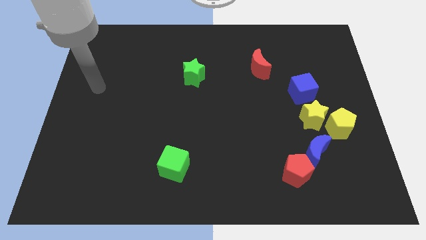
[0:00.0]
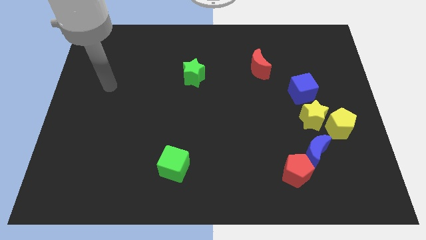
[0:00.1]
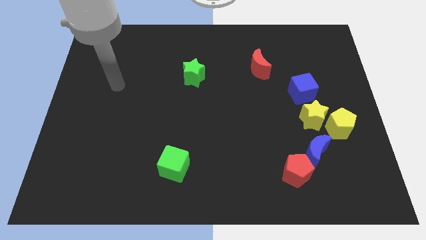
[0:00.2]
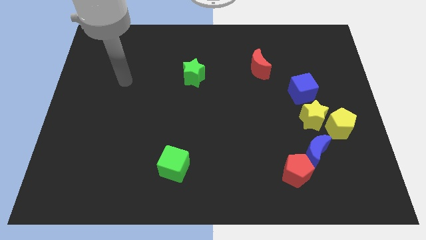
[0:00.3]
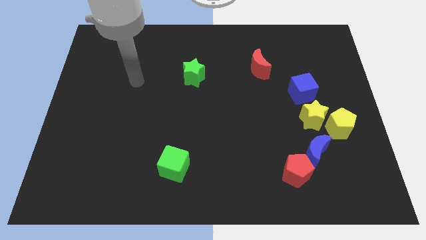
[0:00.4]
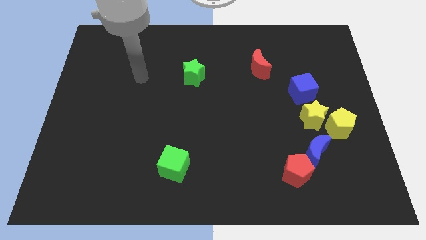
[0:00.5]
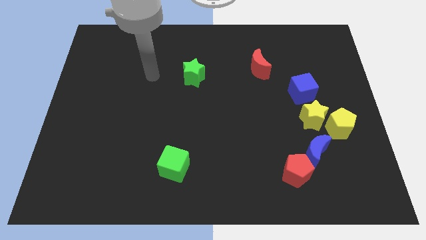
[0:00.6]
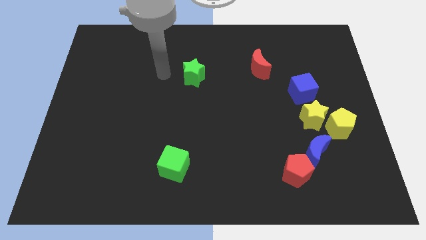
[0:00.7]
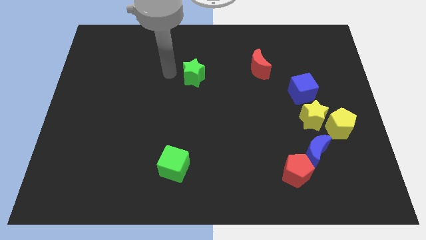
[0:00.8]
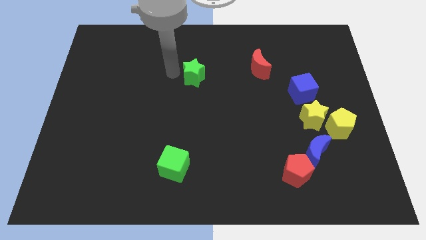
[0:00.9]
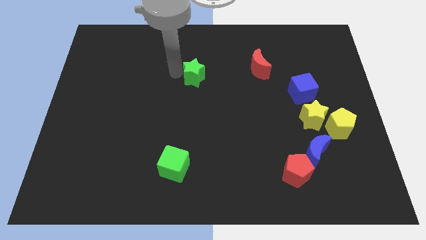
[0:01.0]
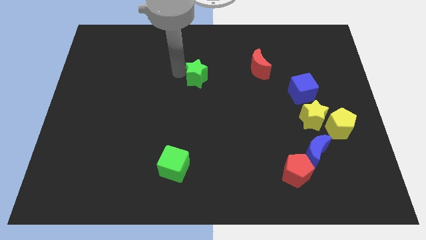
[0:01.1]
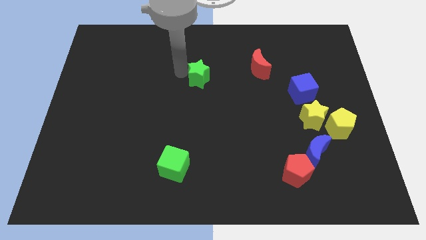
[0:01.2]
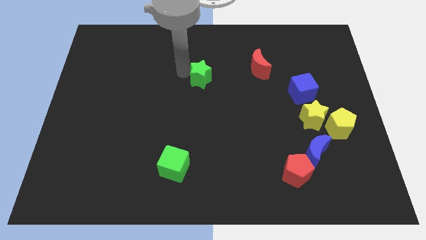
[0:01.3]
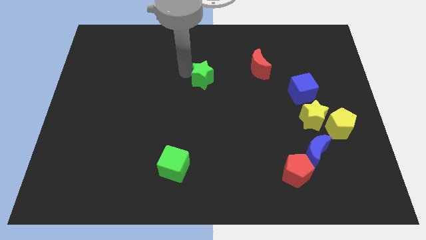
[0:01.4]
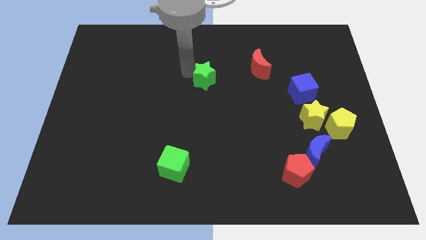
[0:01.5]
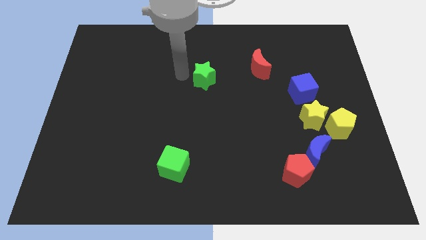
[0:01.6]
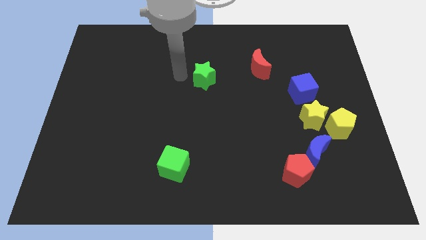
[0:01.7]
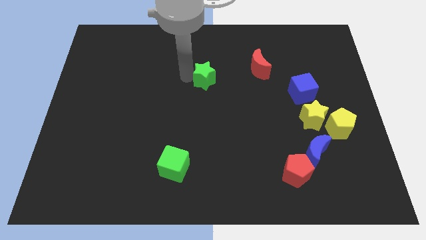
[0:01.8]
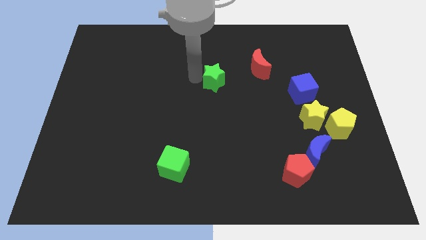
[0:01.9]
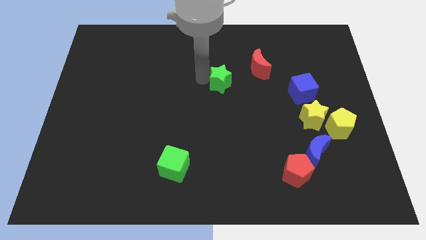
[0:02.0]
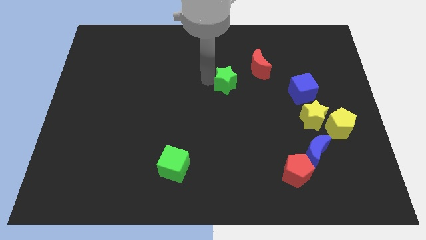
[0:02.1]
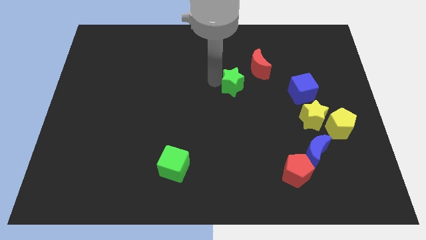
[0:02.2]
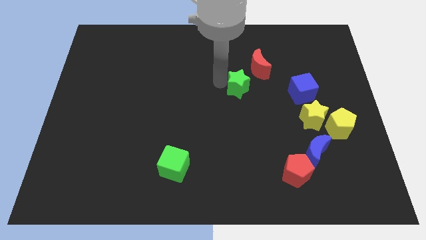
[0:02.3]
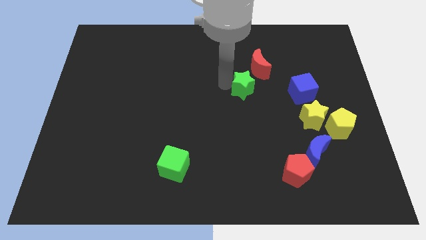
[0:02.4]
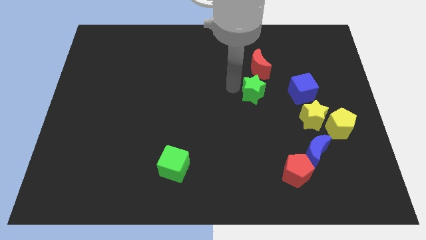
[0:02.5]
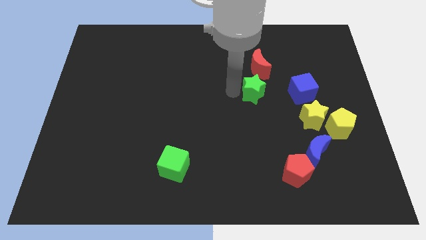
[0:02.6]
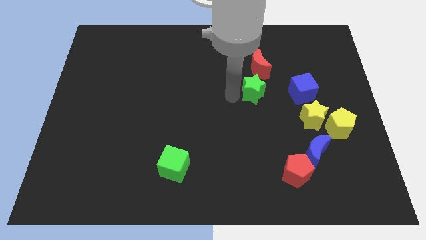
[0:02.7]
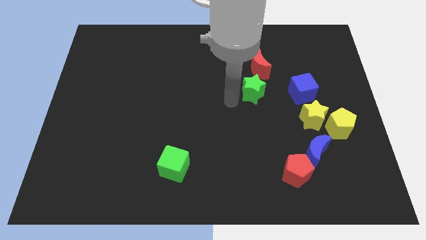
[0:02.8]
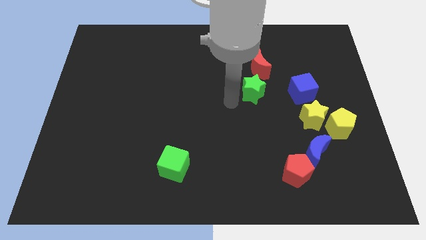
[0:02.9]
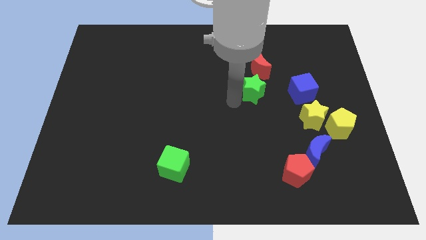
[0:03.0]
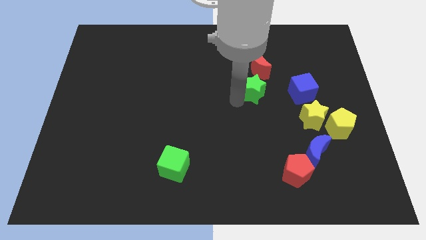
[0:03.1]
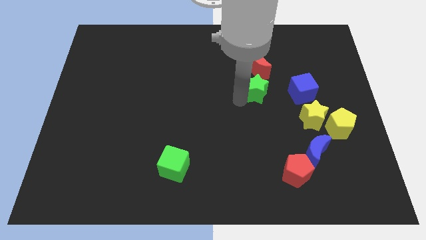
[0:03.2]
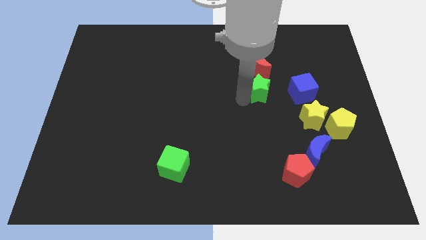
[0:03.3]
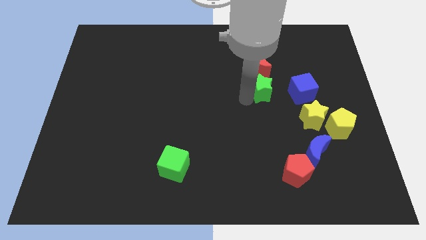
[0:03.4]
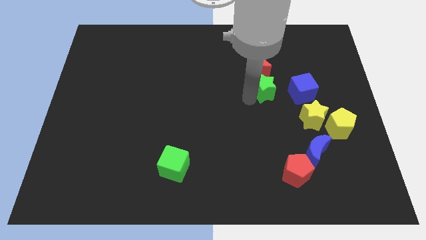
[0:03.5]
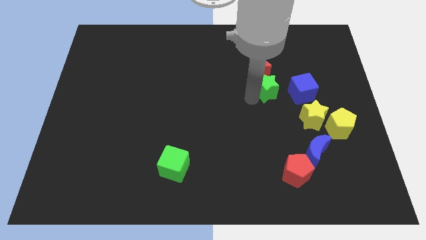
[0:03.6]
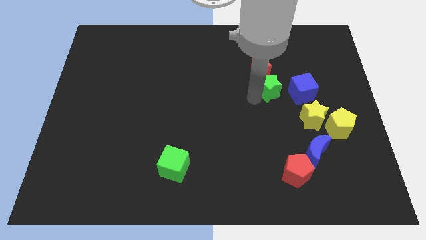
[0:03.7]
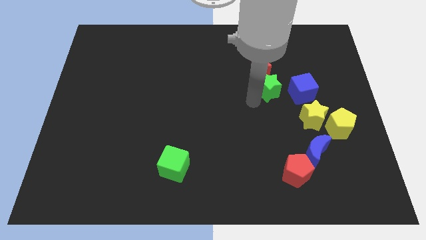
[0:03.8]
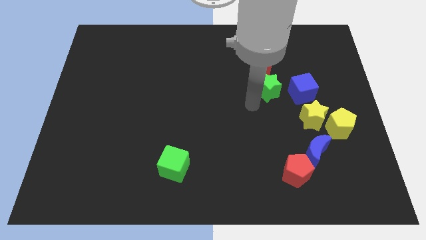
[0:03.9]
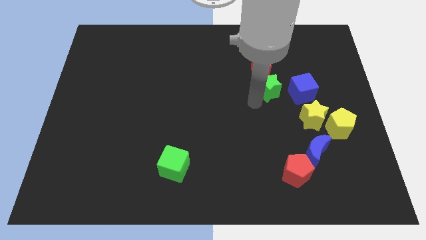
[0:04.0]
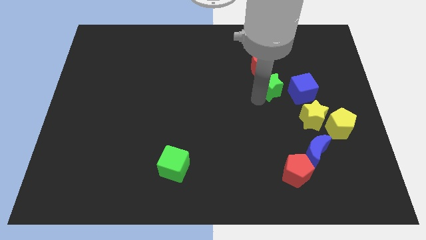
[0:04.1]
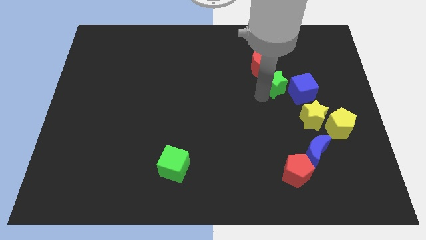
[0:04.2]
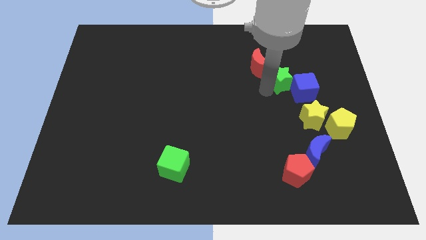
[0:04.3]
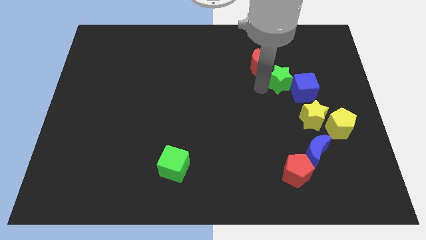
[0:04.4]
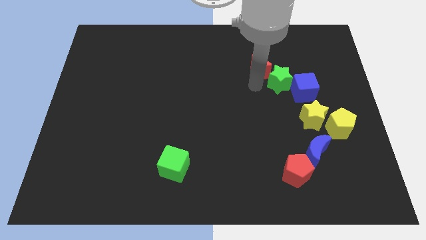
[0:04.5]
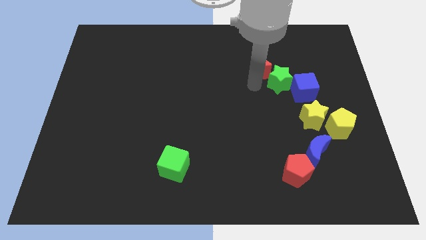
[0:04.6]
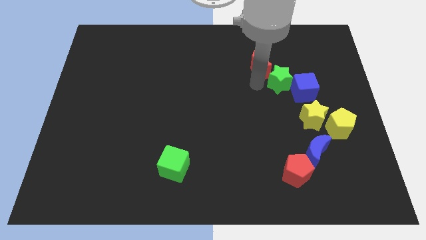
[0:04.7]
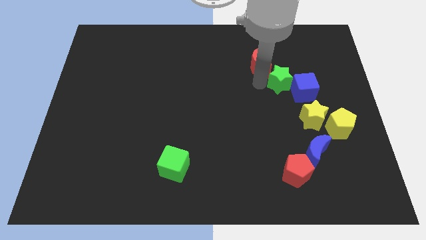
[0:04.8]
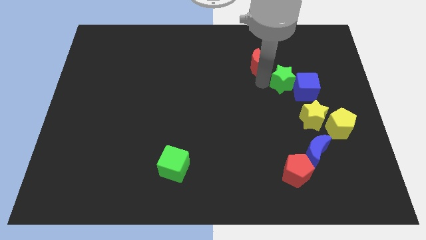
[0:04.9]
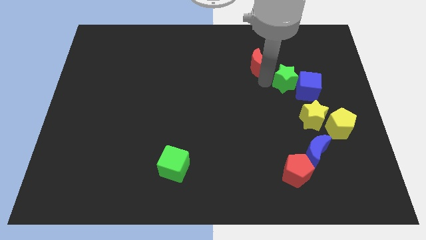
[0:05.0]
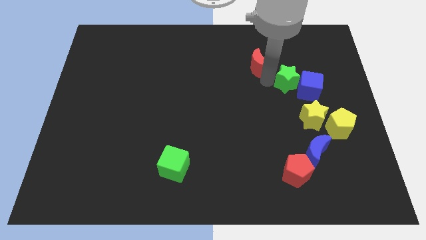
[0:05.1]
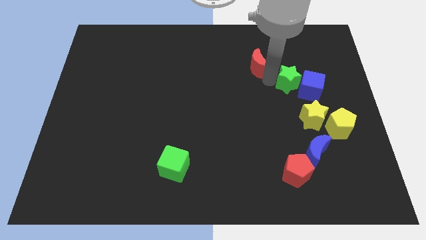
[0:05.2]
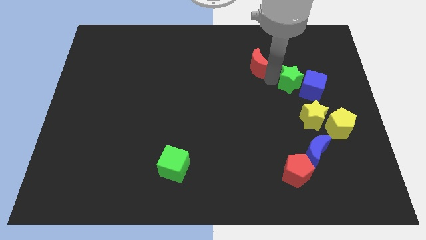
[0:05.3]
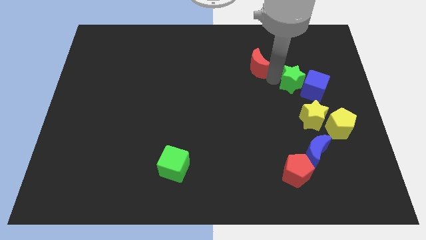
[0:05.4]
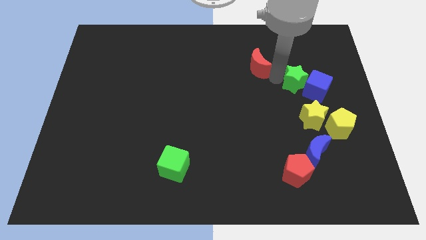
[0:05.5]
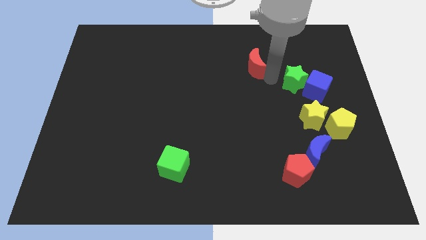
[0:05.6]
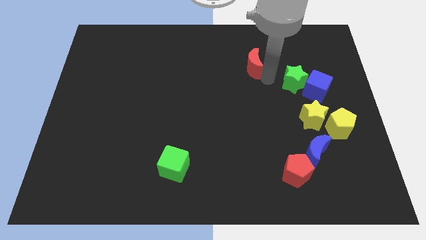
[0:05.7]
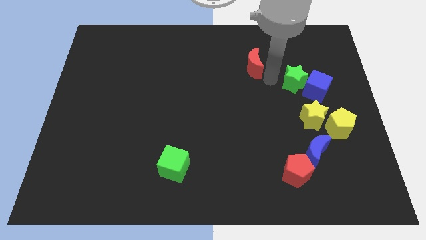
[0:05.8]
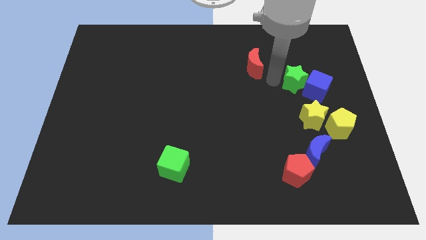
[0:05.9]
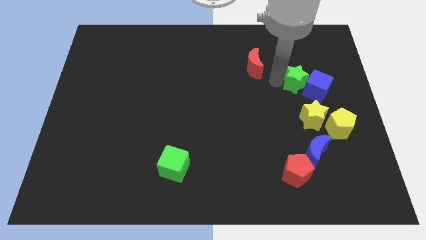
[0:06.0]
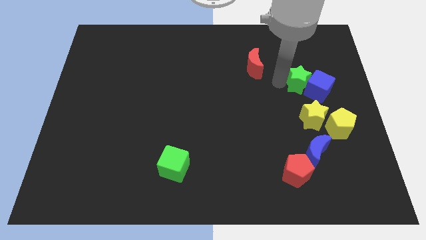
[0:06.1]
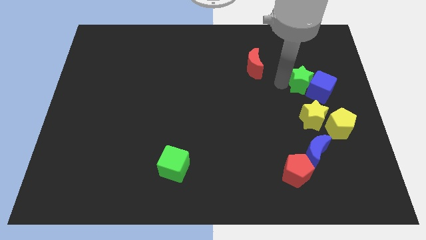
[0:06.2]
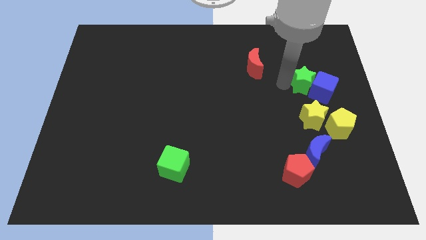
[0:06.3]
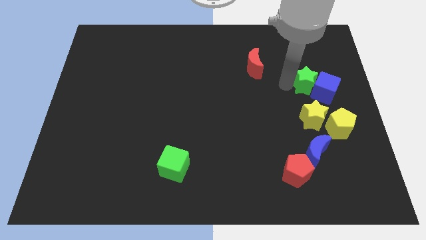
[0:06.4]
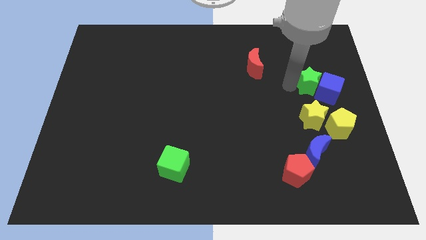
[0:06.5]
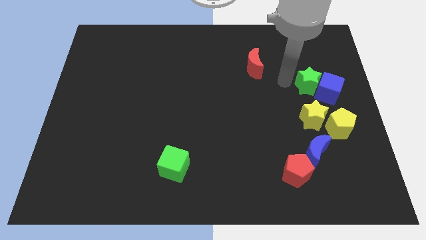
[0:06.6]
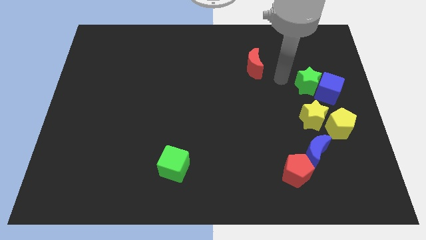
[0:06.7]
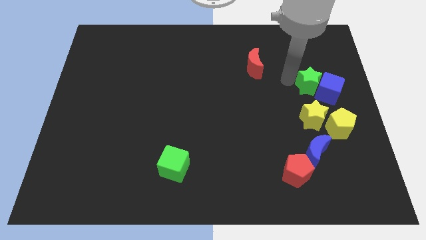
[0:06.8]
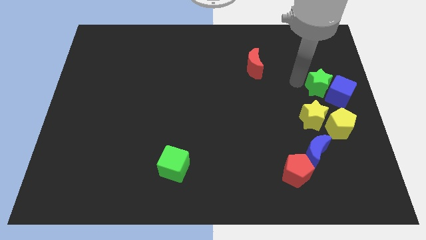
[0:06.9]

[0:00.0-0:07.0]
slide the green star to the center right

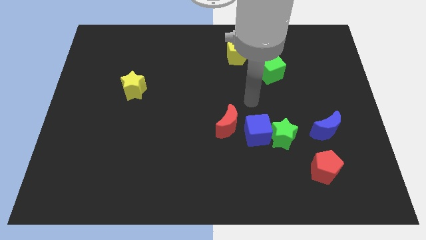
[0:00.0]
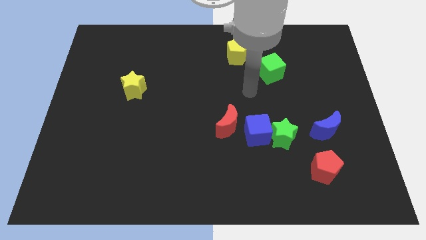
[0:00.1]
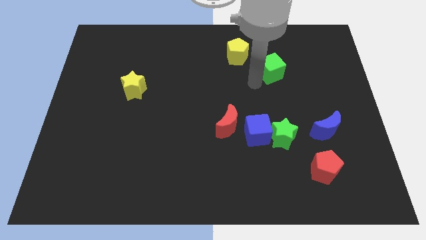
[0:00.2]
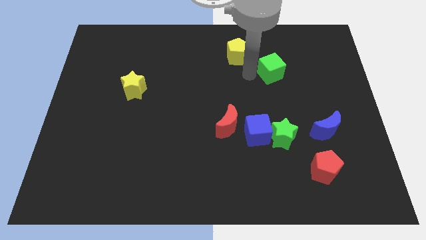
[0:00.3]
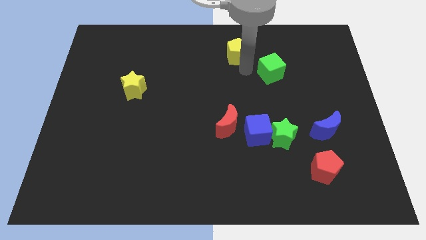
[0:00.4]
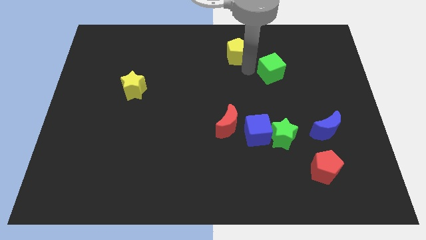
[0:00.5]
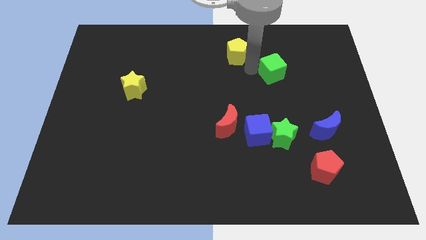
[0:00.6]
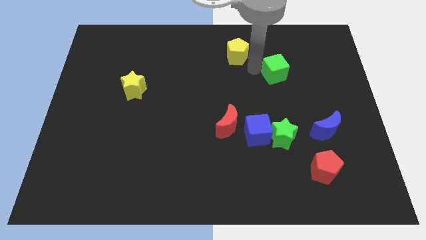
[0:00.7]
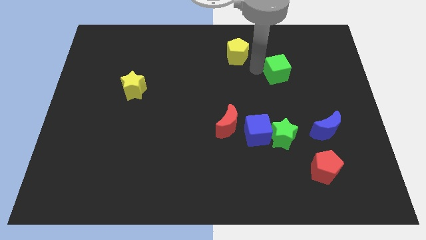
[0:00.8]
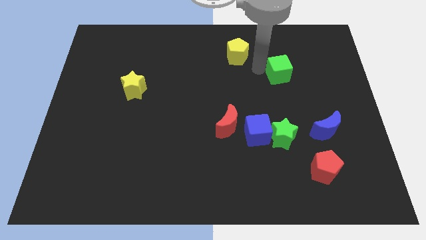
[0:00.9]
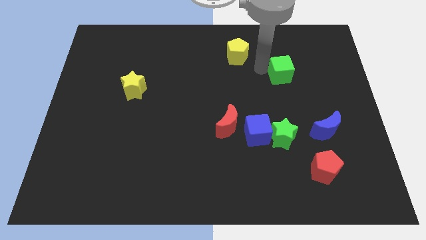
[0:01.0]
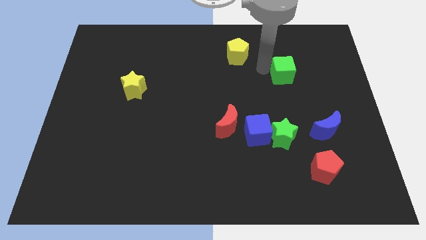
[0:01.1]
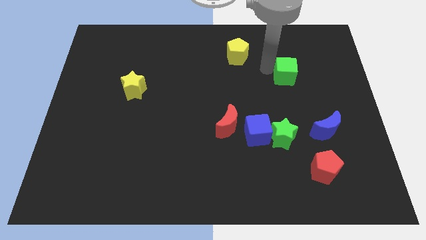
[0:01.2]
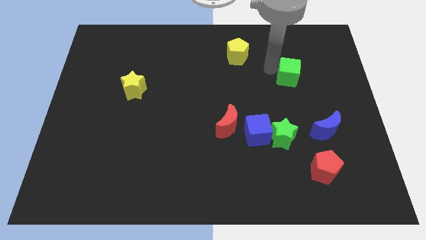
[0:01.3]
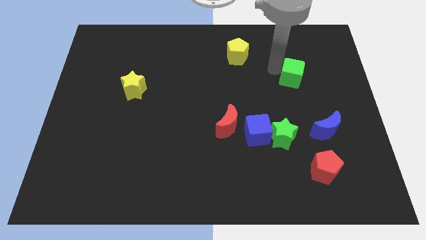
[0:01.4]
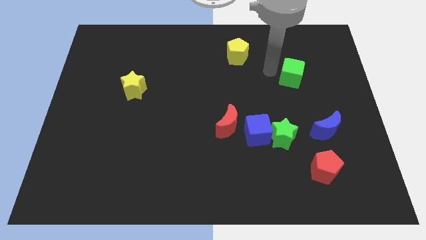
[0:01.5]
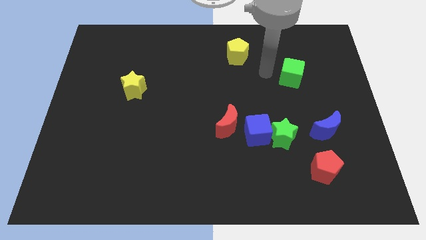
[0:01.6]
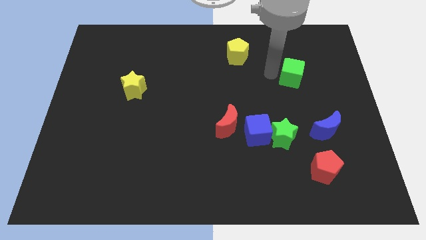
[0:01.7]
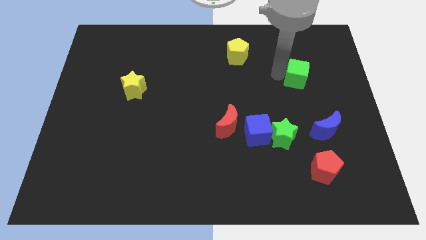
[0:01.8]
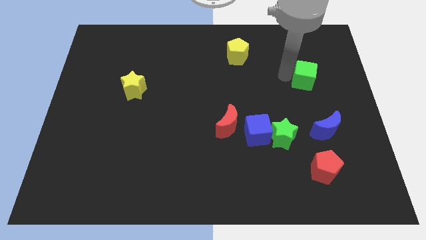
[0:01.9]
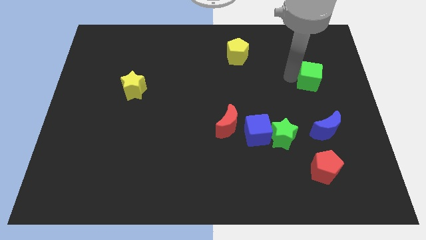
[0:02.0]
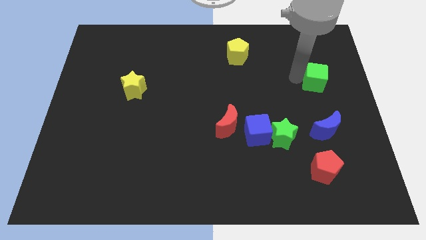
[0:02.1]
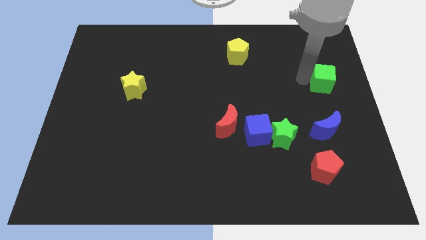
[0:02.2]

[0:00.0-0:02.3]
put the green cube to the right side of the board
